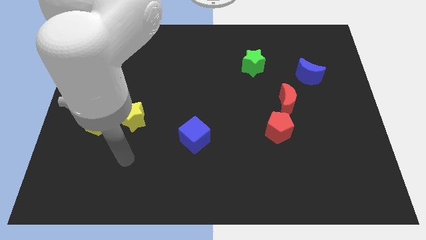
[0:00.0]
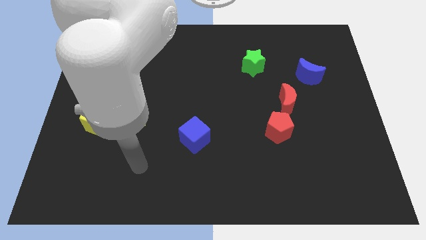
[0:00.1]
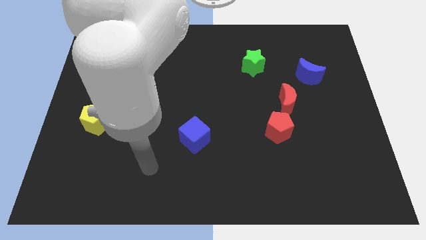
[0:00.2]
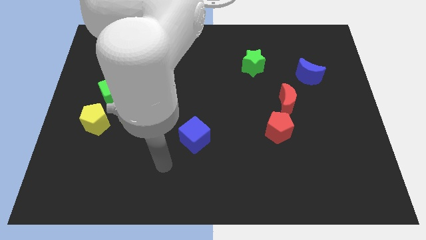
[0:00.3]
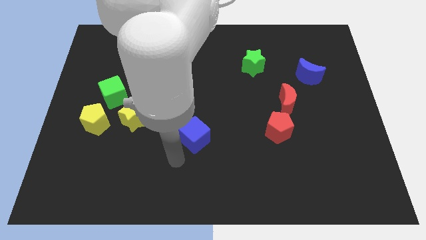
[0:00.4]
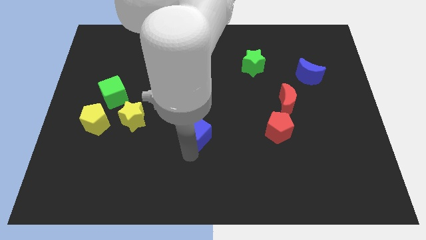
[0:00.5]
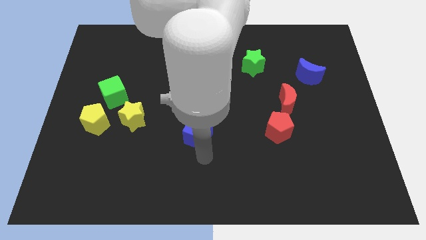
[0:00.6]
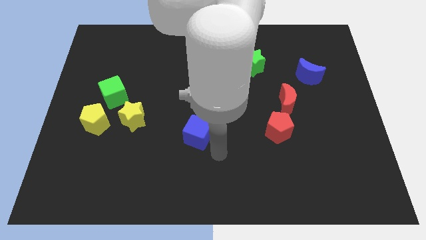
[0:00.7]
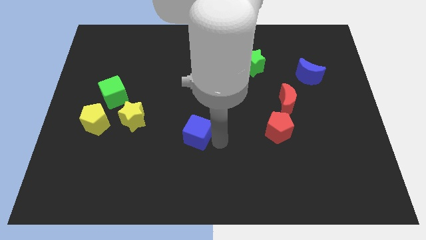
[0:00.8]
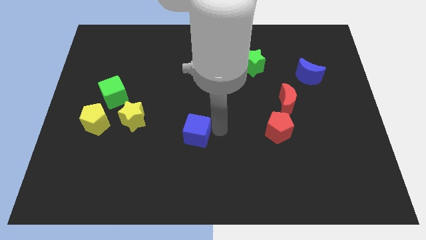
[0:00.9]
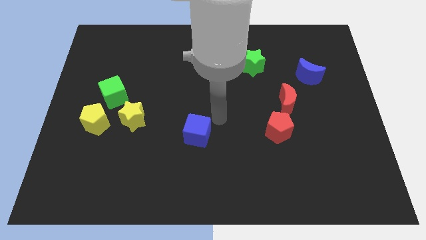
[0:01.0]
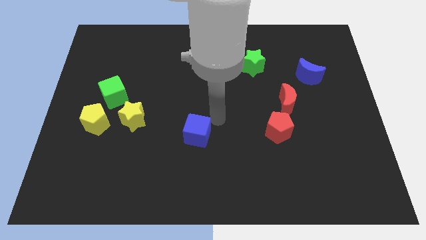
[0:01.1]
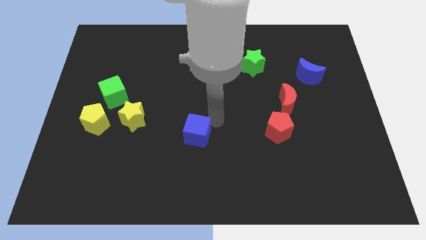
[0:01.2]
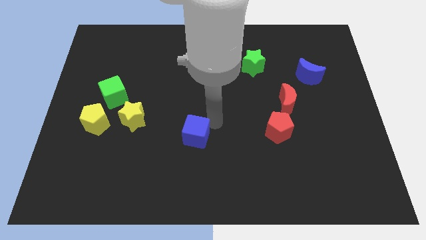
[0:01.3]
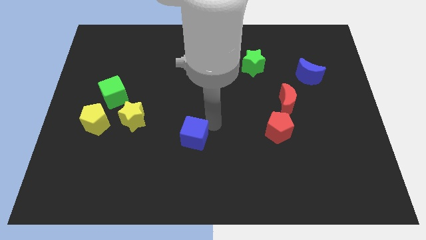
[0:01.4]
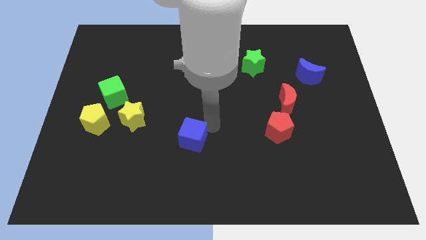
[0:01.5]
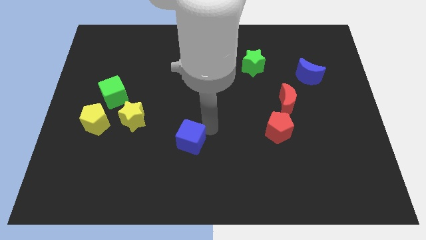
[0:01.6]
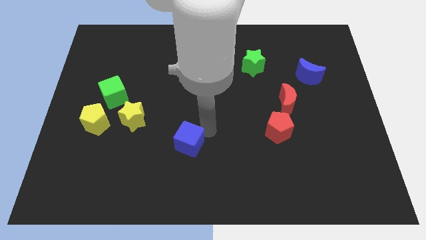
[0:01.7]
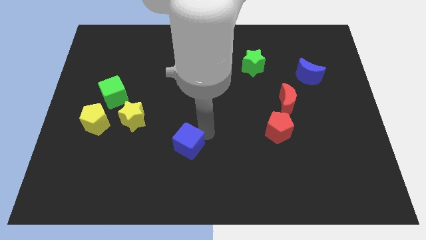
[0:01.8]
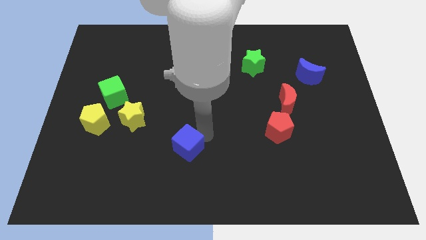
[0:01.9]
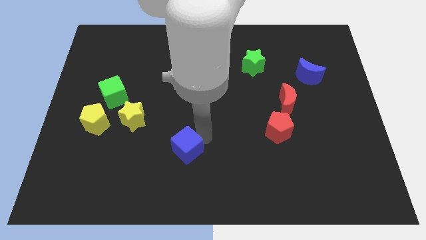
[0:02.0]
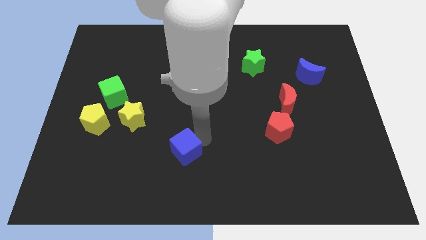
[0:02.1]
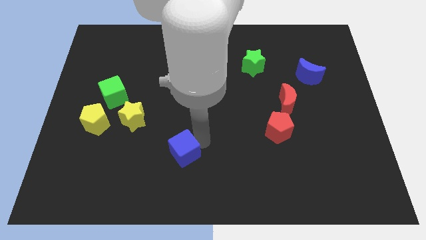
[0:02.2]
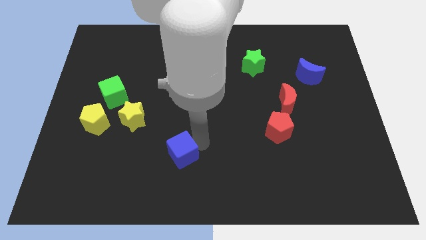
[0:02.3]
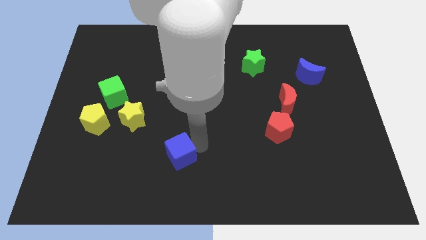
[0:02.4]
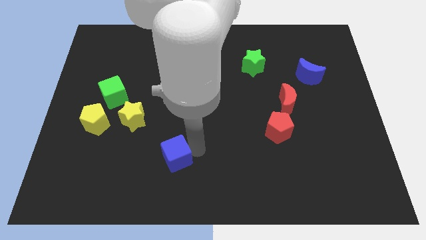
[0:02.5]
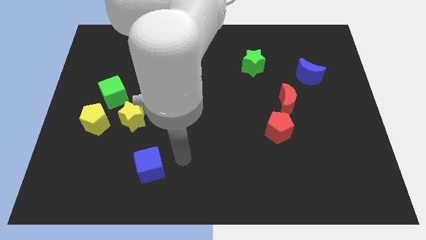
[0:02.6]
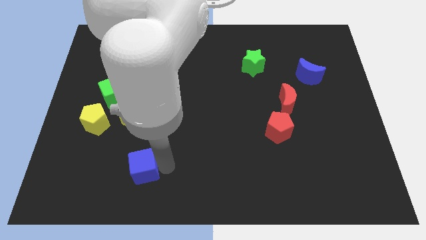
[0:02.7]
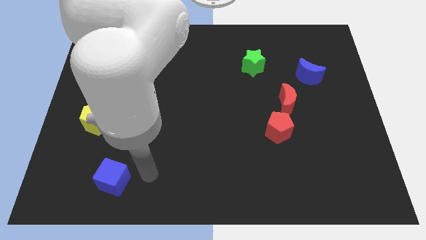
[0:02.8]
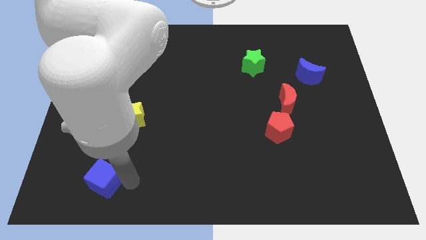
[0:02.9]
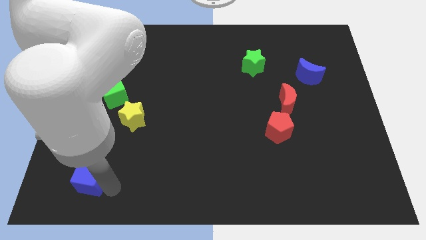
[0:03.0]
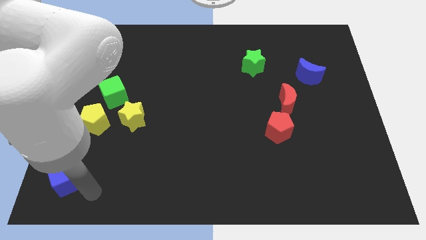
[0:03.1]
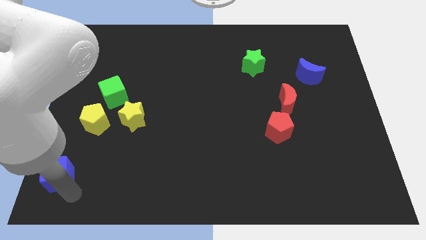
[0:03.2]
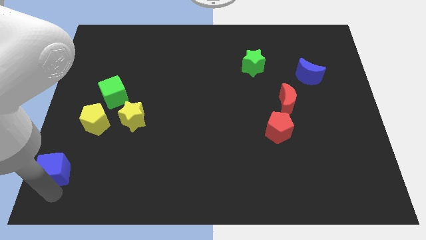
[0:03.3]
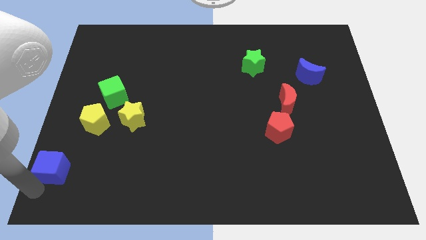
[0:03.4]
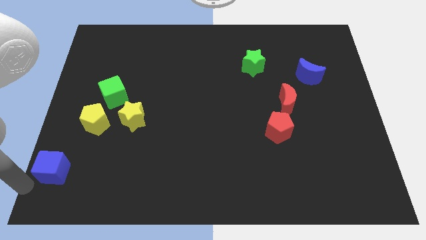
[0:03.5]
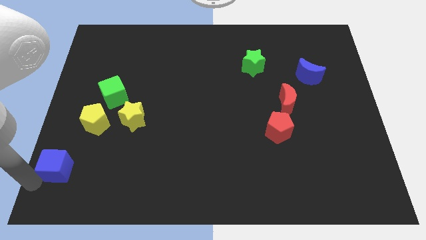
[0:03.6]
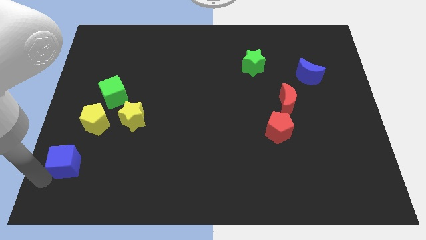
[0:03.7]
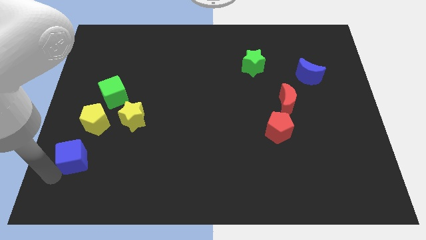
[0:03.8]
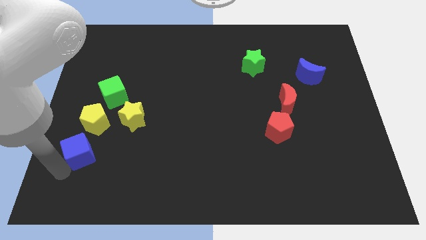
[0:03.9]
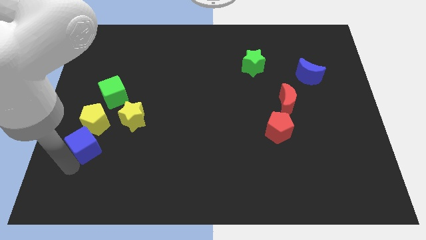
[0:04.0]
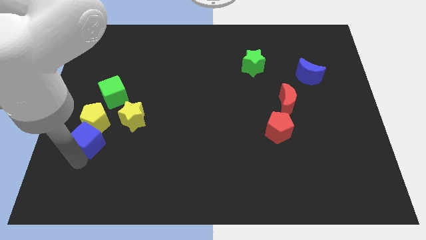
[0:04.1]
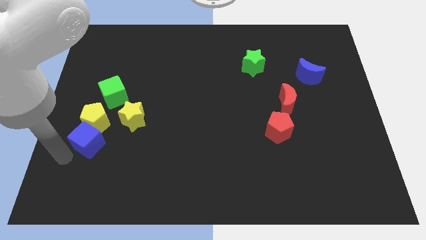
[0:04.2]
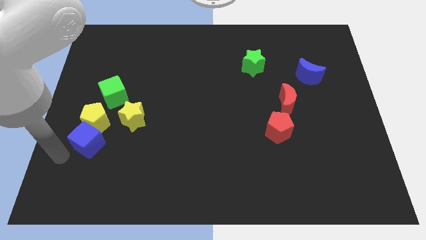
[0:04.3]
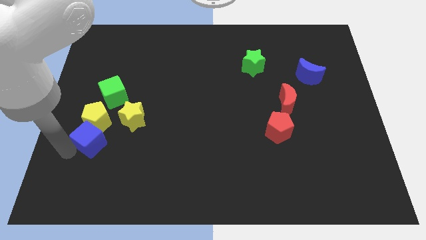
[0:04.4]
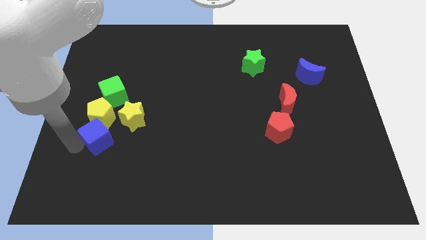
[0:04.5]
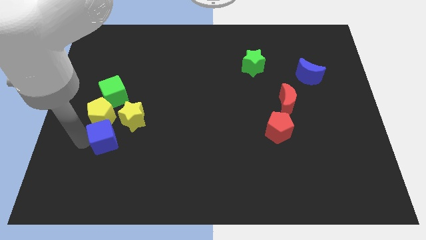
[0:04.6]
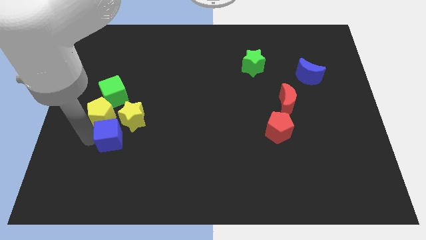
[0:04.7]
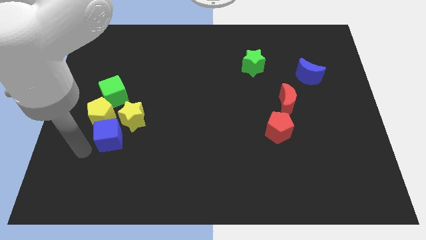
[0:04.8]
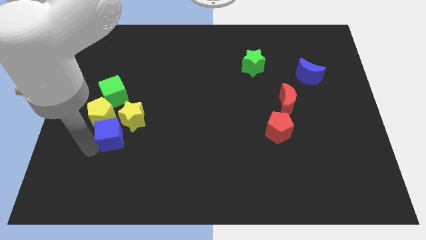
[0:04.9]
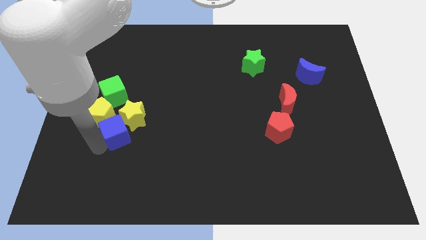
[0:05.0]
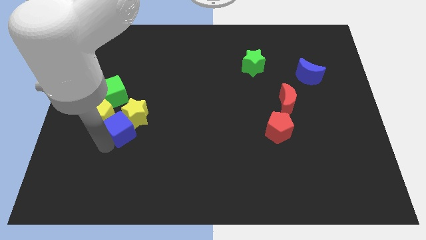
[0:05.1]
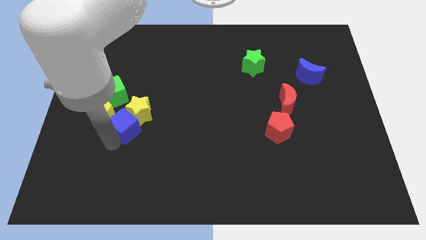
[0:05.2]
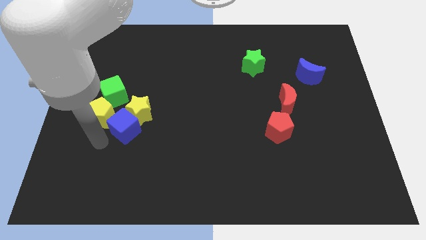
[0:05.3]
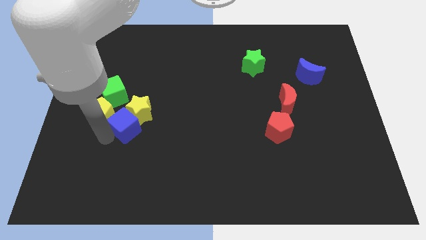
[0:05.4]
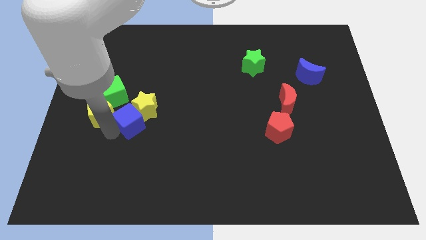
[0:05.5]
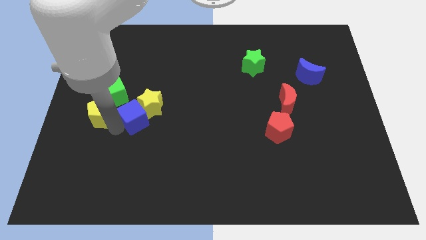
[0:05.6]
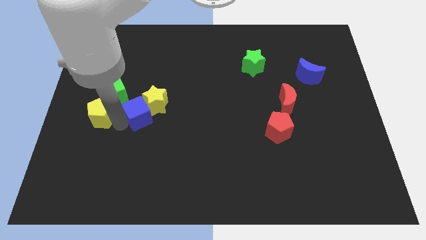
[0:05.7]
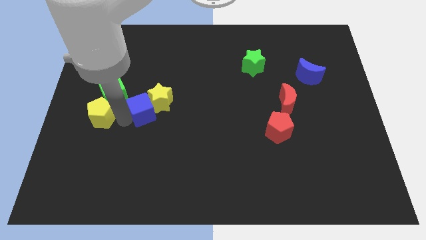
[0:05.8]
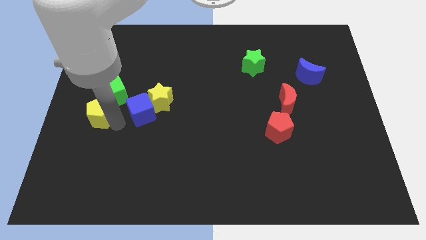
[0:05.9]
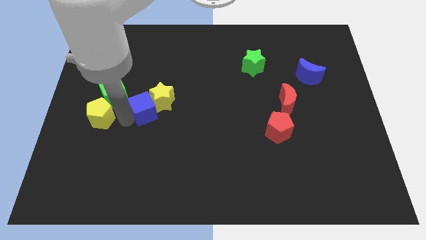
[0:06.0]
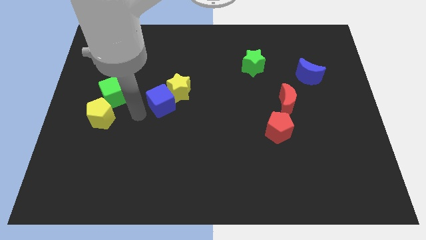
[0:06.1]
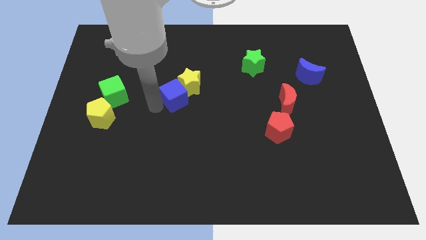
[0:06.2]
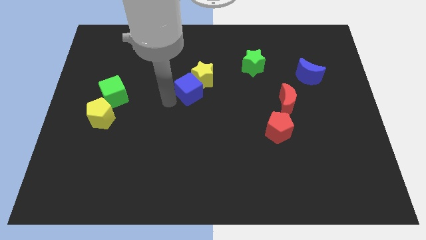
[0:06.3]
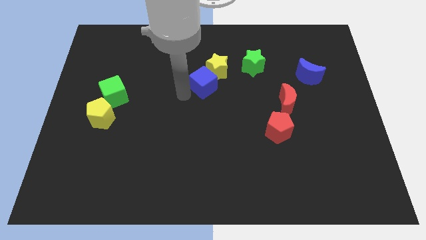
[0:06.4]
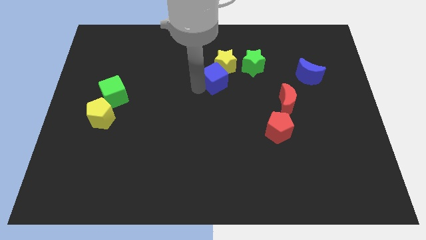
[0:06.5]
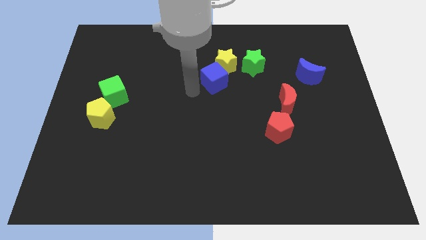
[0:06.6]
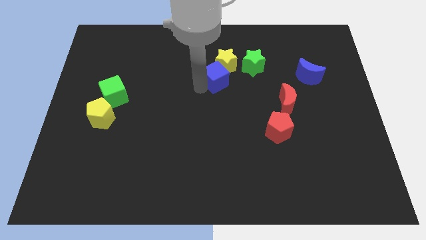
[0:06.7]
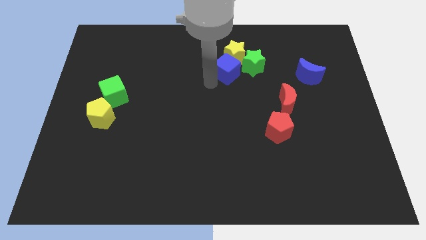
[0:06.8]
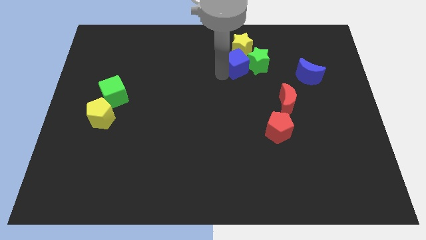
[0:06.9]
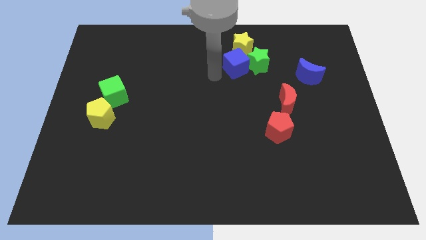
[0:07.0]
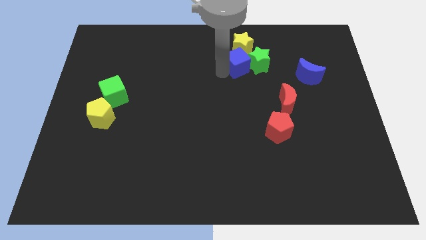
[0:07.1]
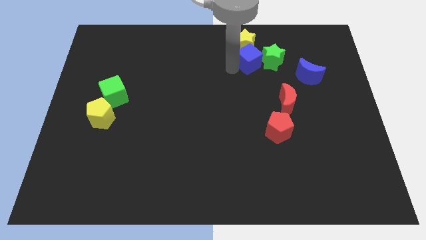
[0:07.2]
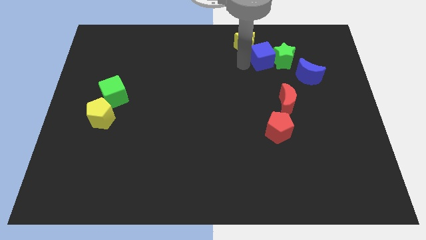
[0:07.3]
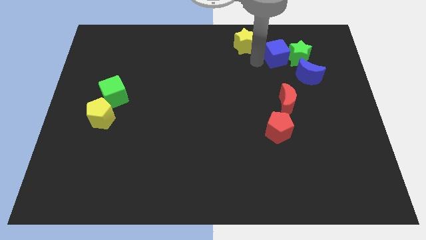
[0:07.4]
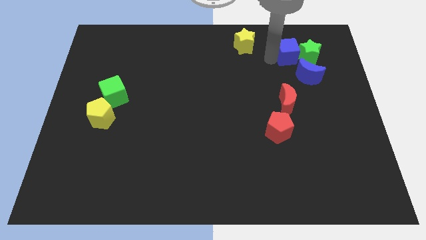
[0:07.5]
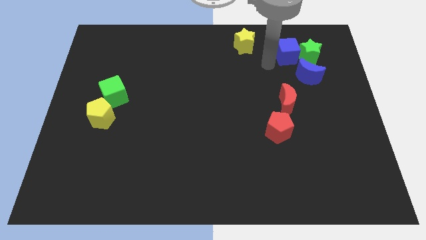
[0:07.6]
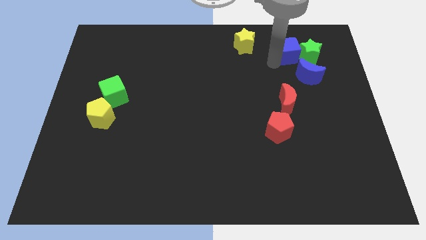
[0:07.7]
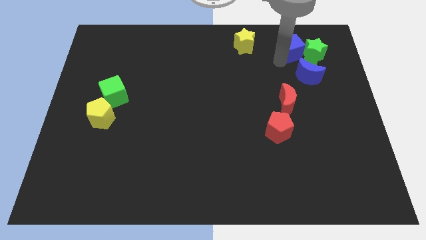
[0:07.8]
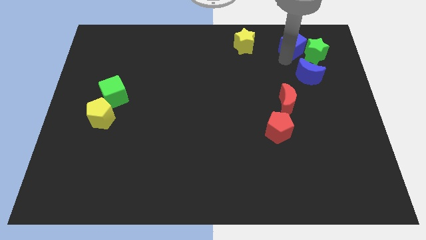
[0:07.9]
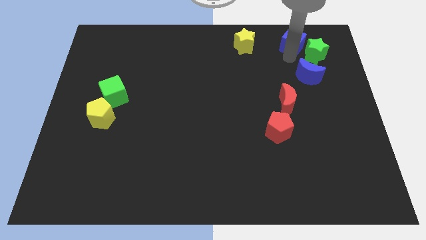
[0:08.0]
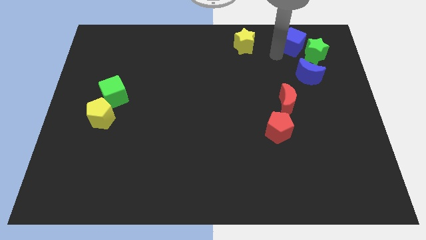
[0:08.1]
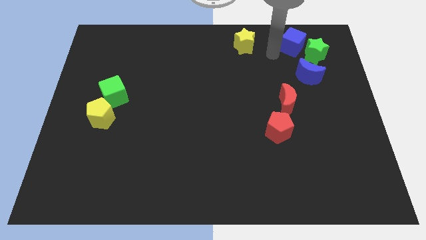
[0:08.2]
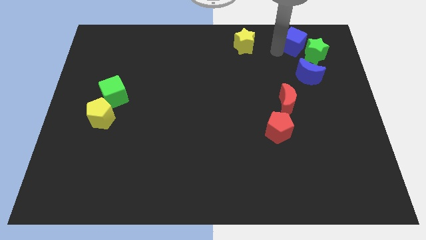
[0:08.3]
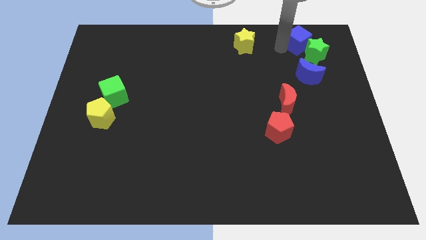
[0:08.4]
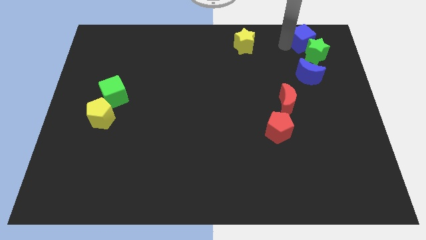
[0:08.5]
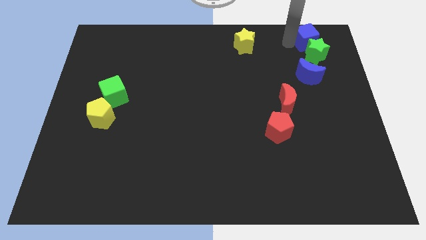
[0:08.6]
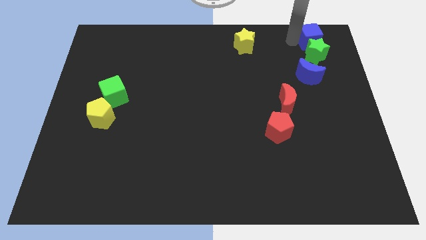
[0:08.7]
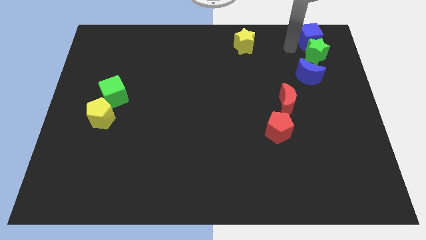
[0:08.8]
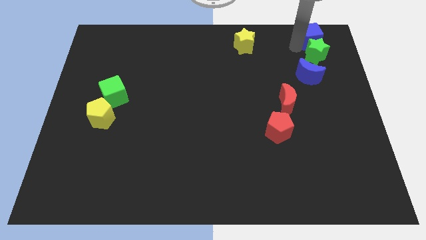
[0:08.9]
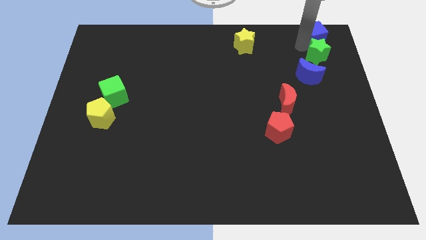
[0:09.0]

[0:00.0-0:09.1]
slide the blue cube to the top right
